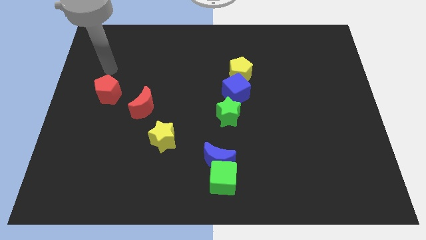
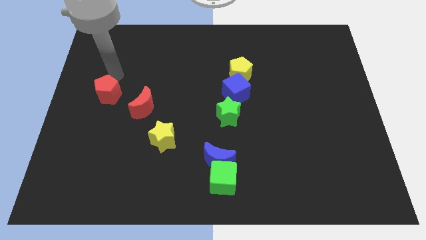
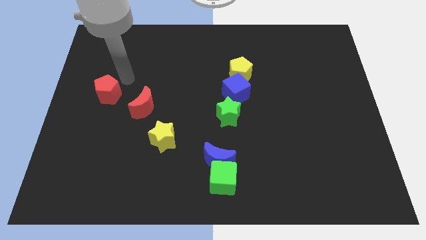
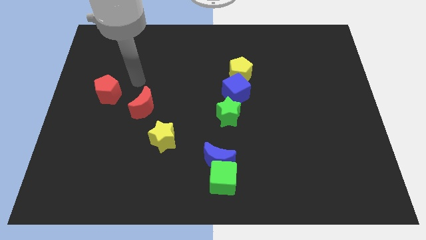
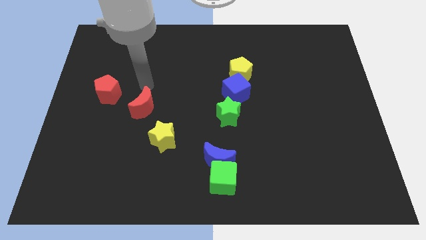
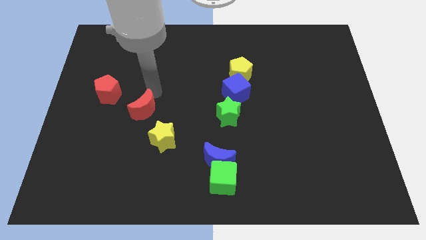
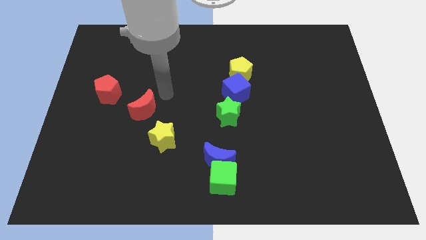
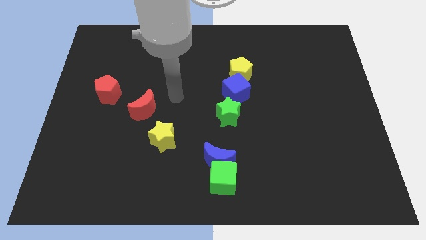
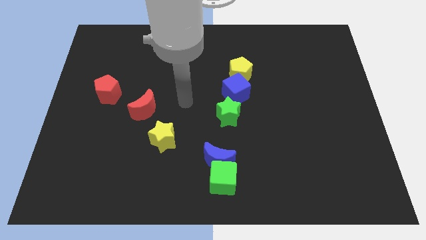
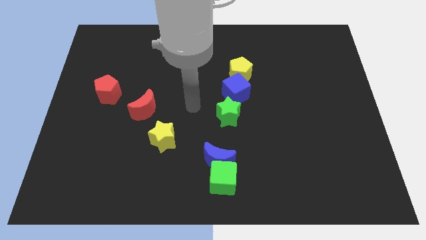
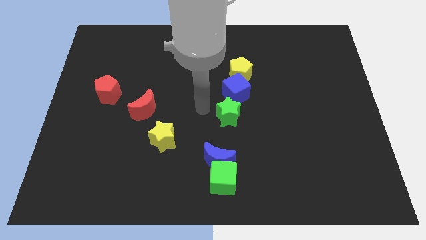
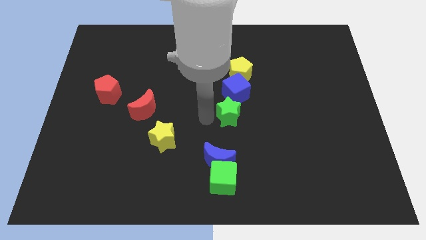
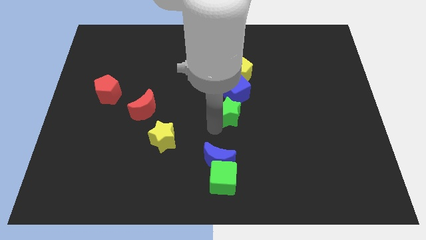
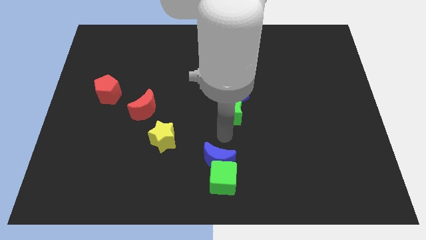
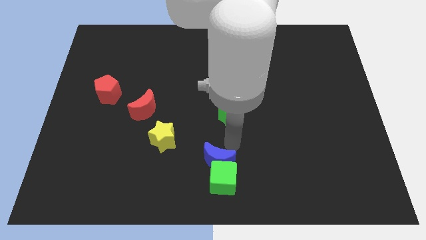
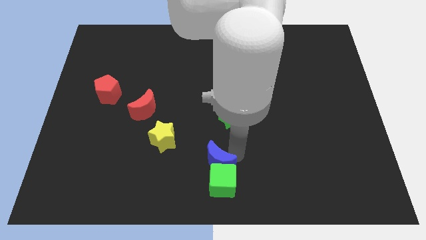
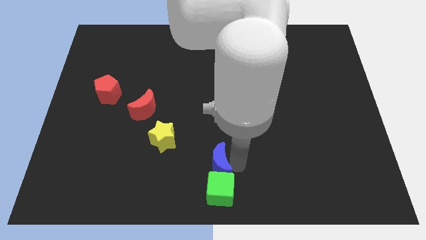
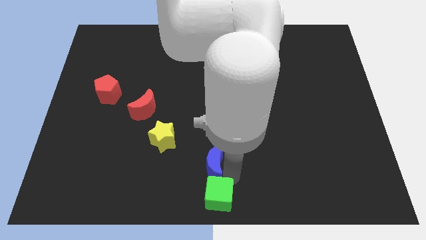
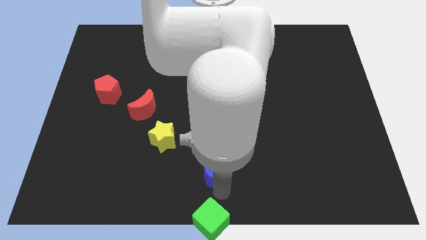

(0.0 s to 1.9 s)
move the blue moon away from the green cube

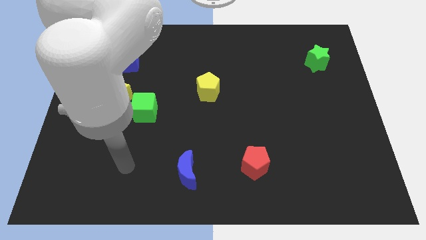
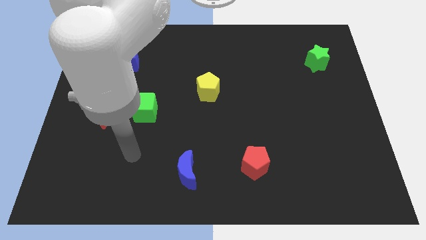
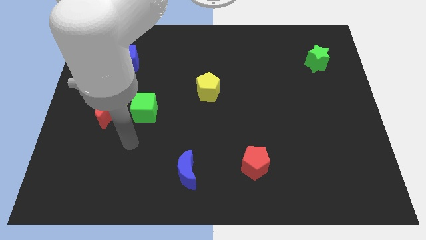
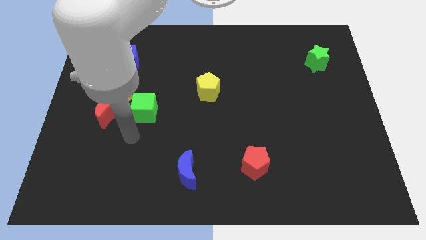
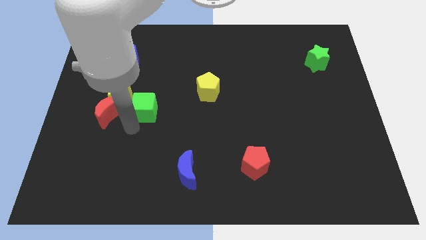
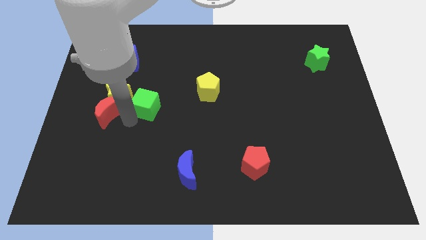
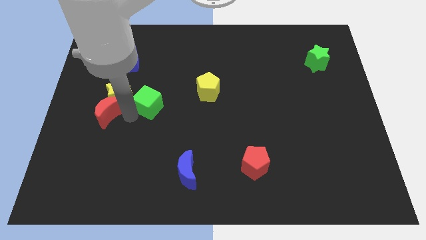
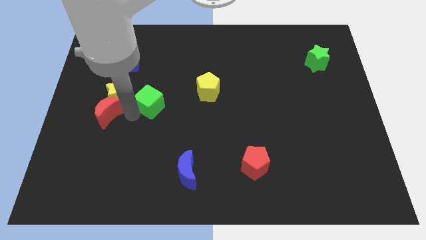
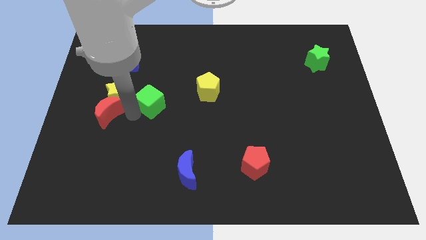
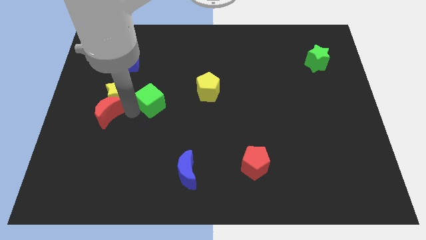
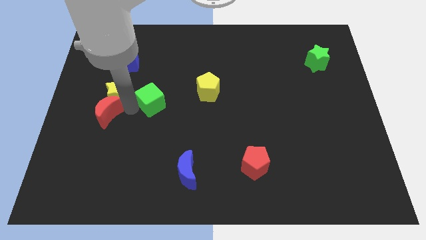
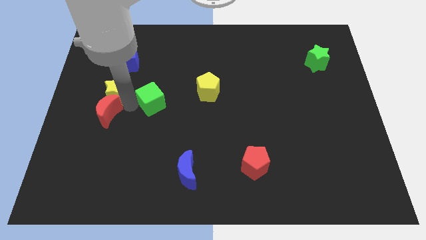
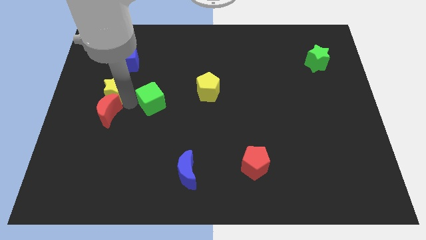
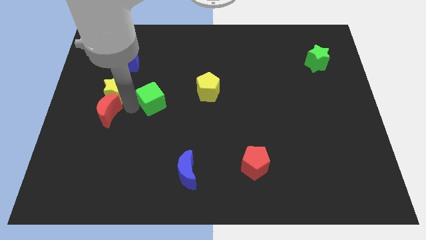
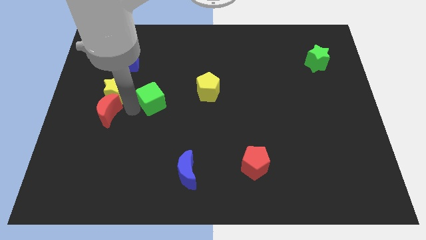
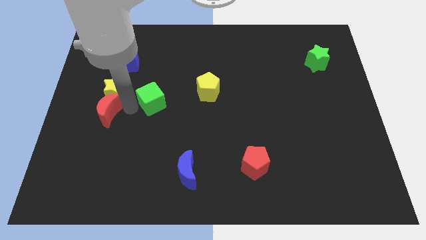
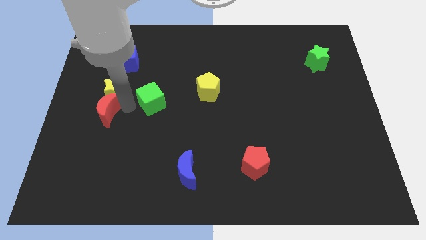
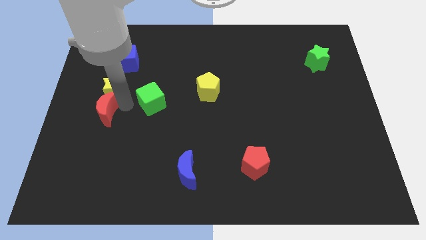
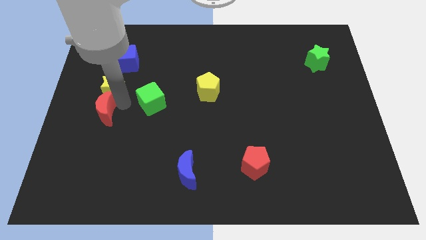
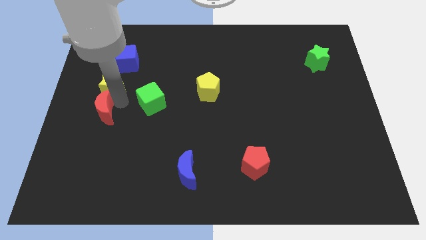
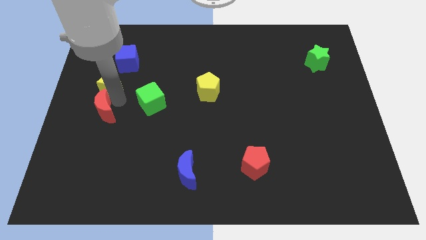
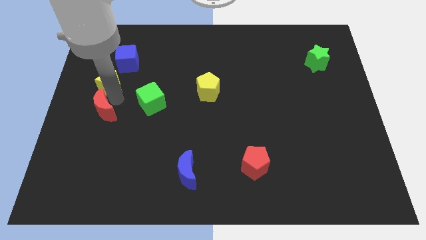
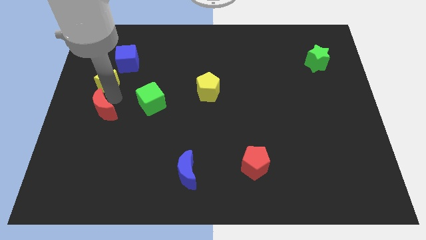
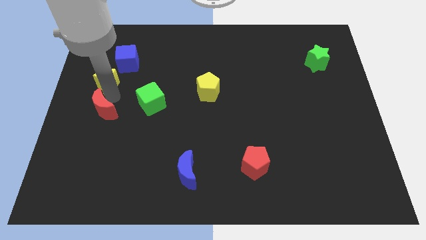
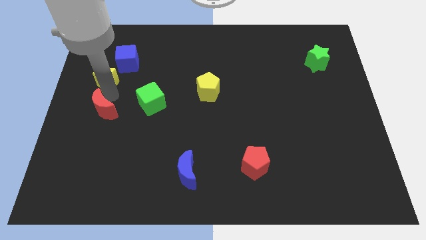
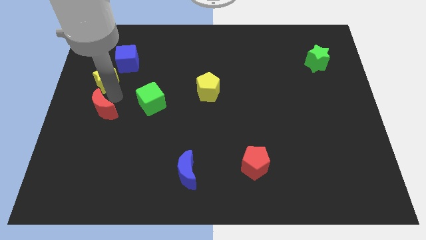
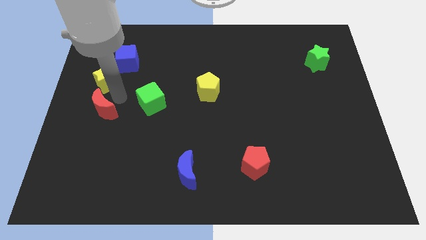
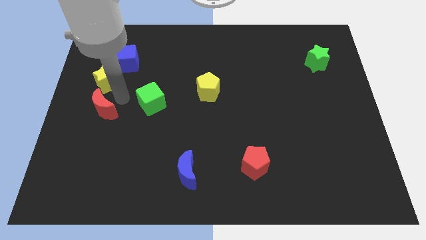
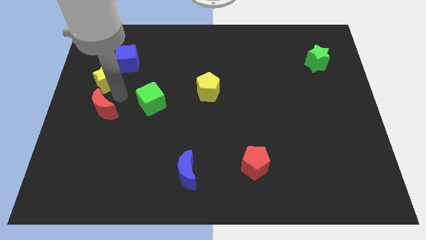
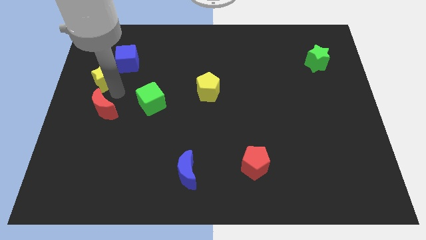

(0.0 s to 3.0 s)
separate the yellow star from the red moon and green cube

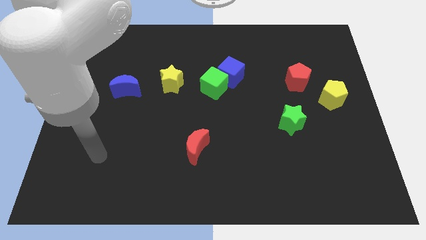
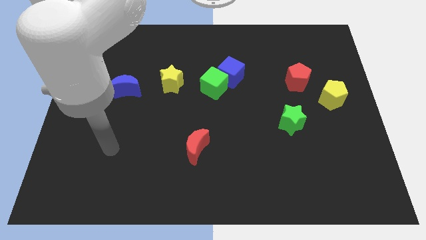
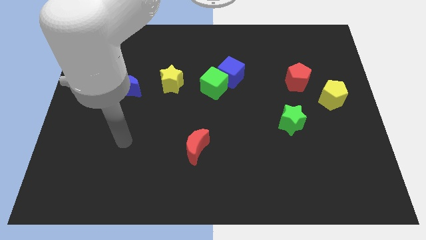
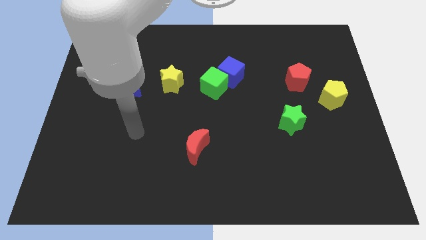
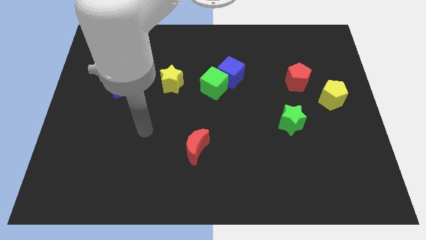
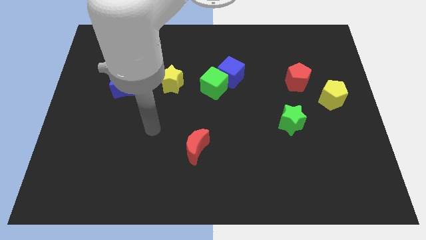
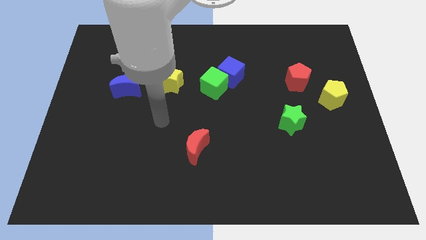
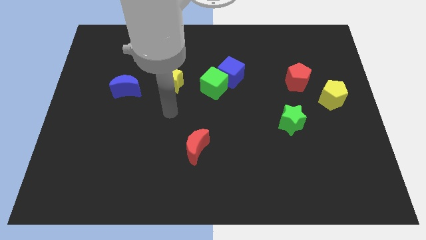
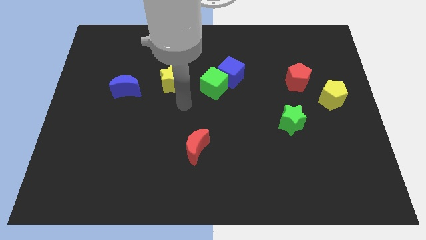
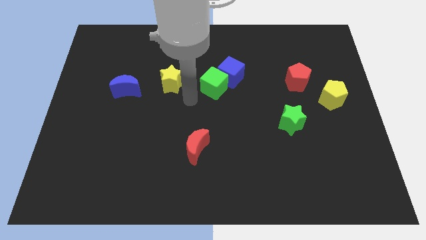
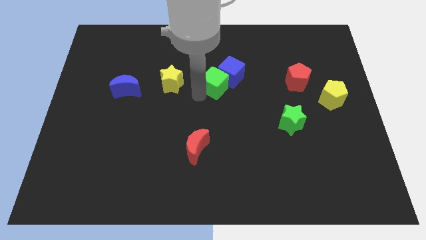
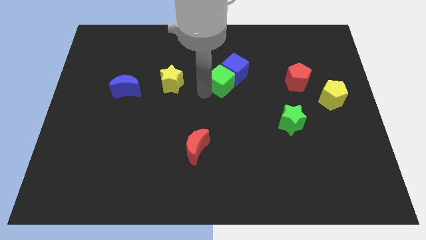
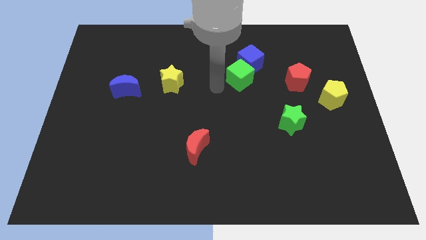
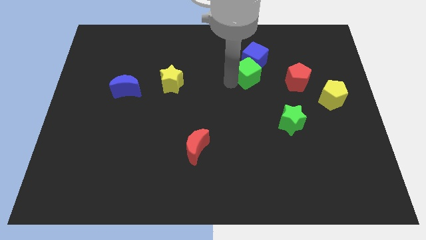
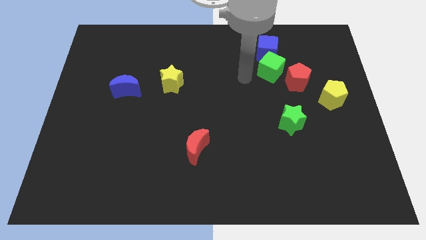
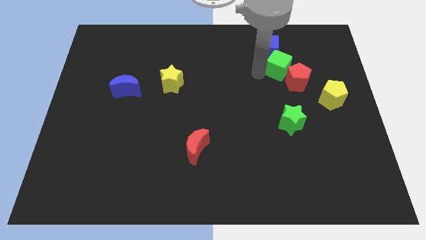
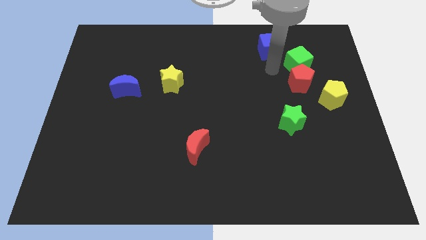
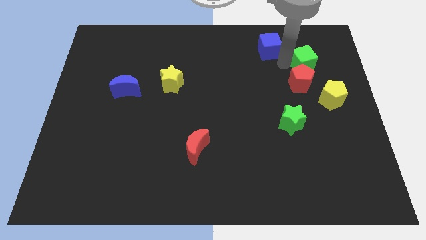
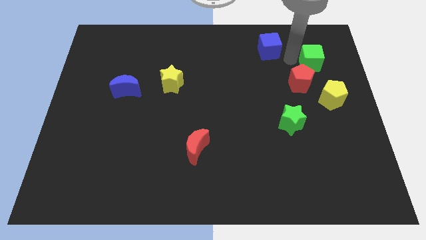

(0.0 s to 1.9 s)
separate the blue cube from the green cube

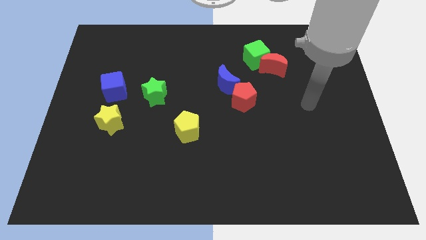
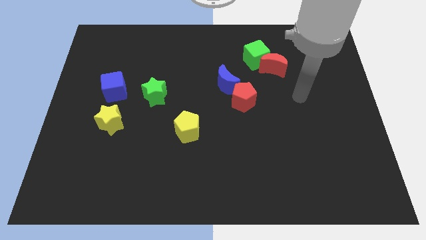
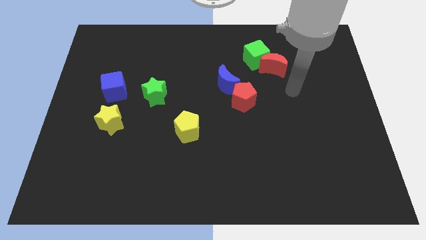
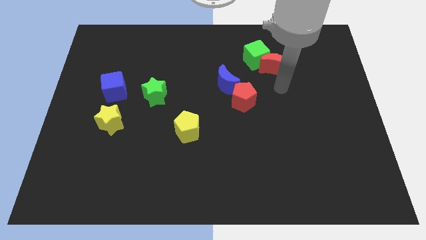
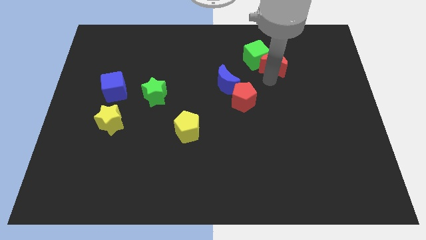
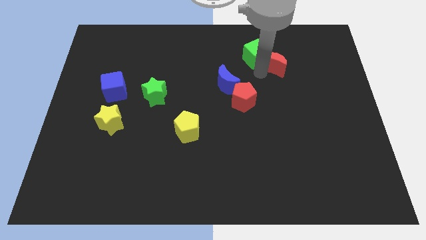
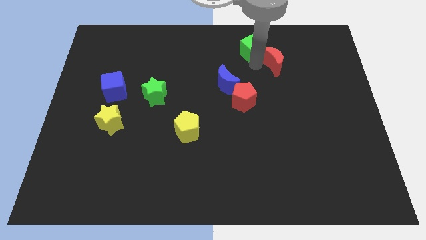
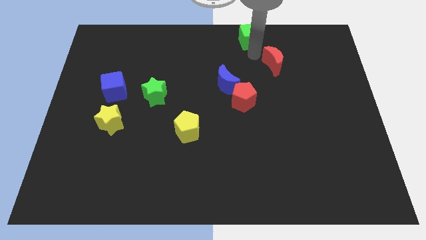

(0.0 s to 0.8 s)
separate the red moon from the green cube

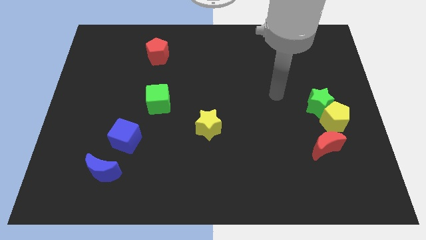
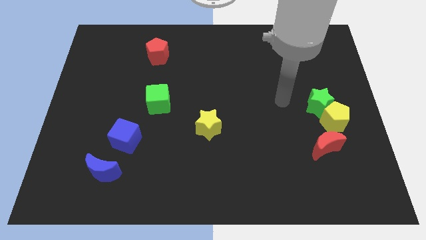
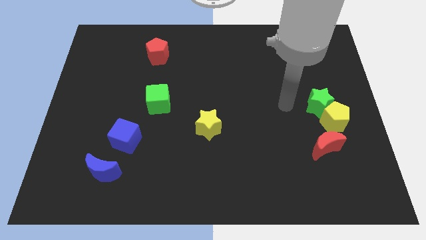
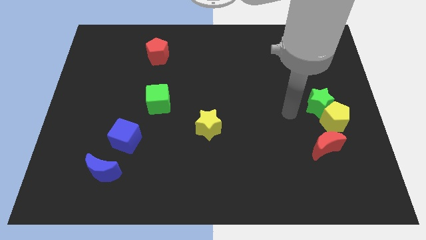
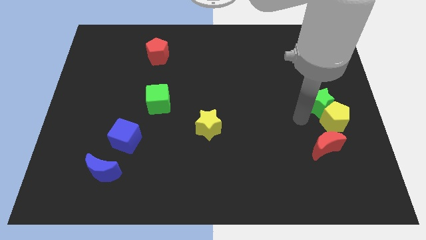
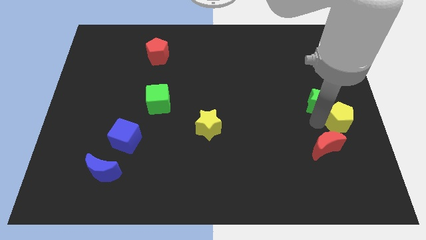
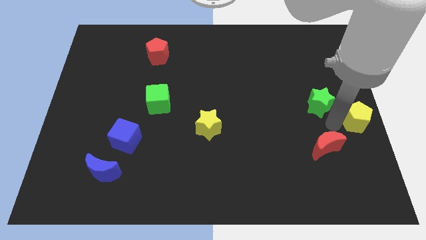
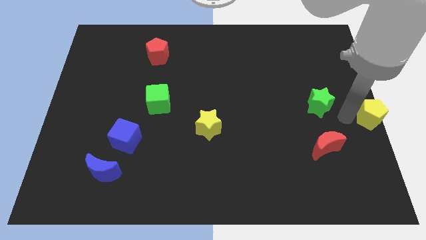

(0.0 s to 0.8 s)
move the green star away from the yellow pentagon

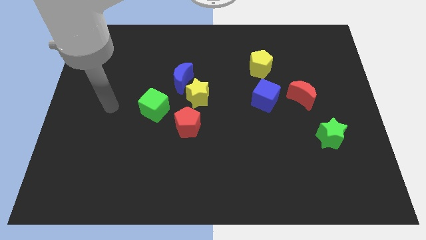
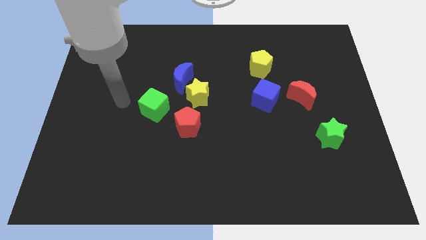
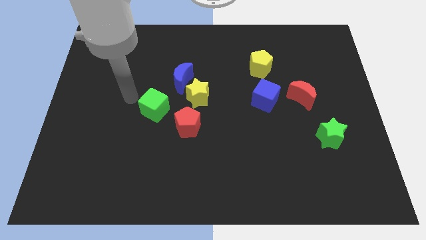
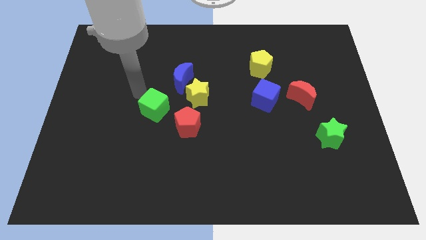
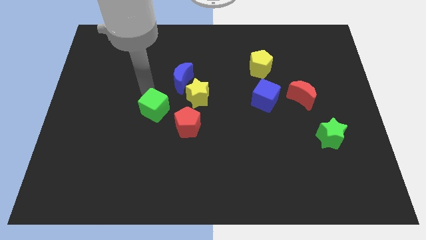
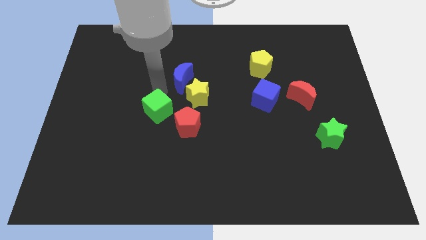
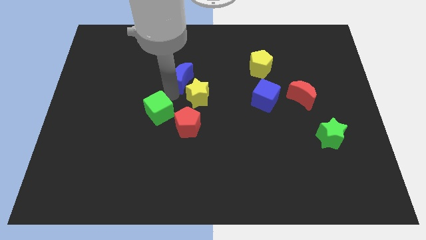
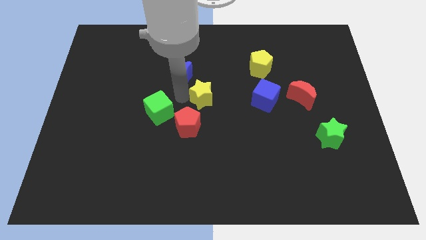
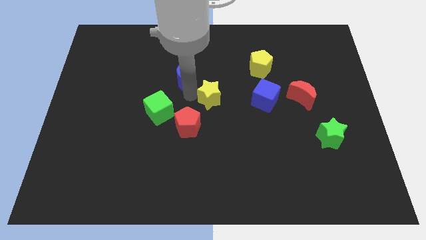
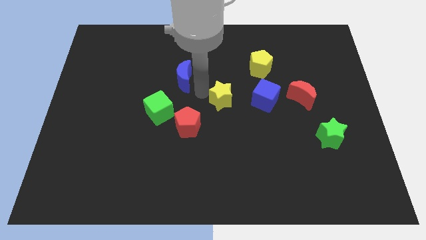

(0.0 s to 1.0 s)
pull the blue moon apart from the yellow star
